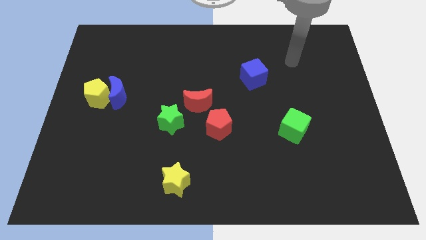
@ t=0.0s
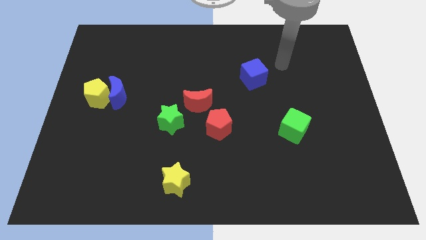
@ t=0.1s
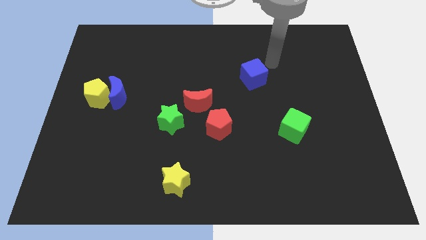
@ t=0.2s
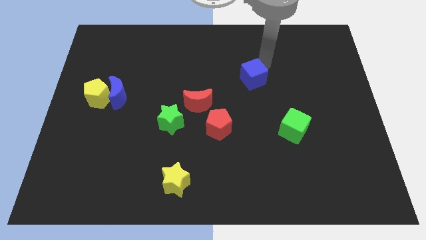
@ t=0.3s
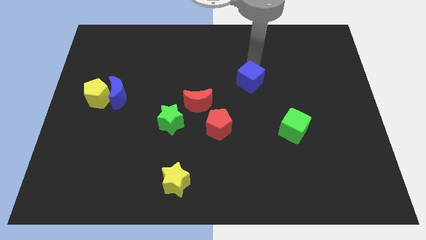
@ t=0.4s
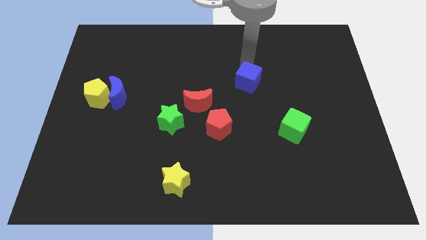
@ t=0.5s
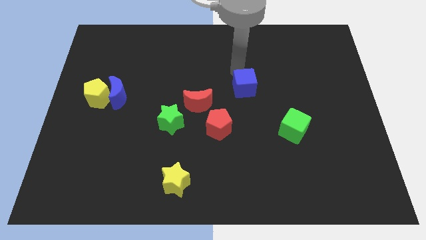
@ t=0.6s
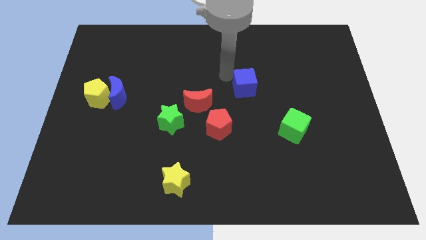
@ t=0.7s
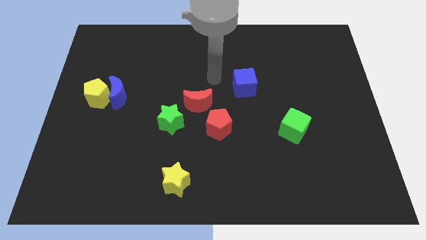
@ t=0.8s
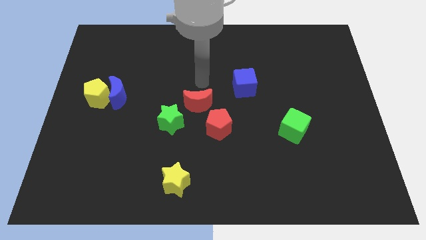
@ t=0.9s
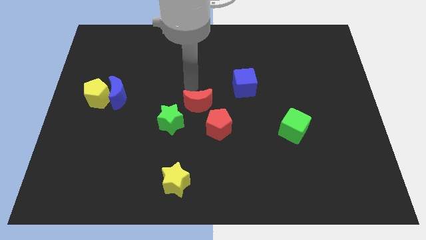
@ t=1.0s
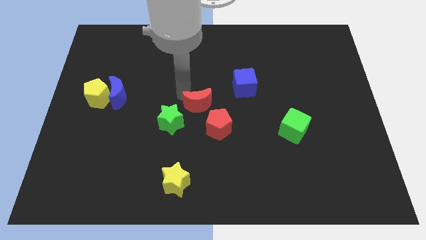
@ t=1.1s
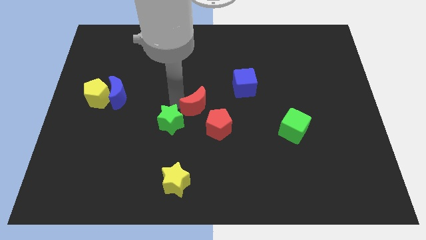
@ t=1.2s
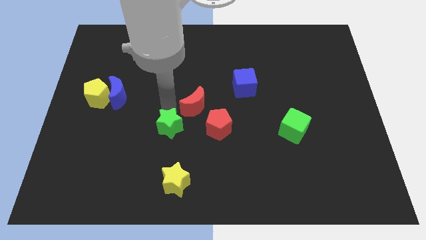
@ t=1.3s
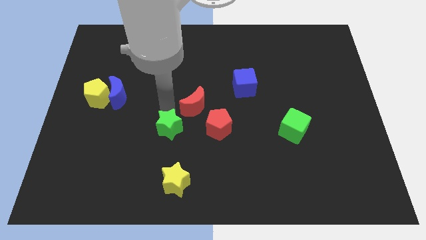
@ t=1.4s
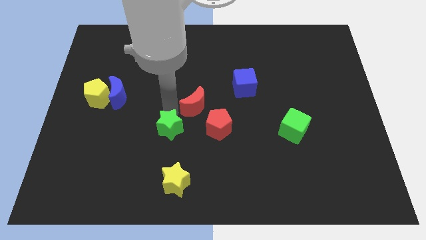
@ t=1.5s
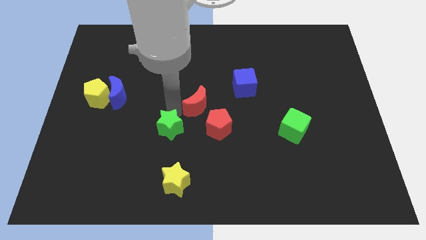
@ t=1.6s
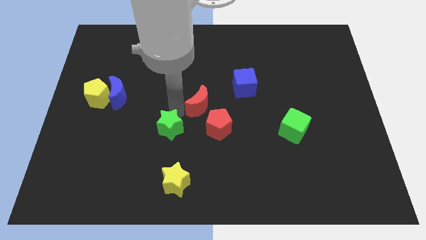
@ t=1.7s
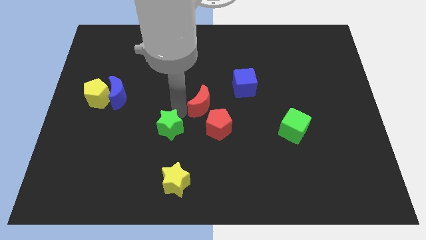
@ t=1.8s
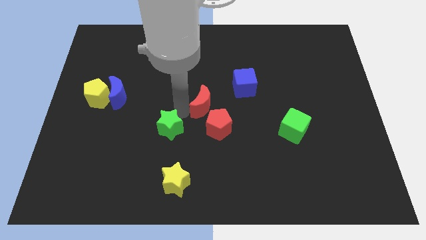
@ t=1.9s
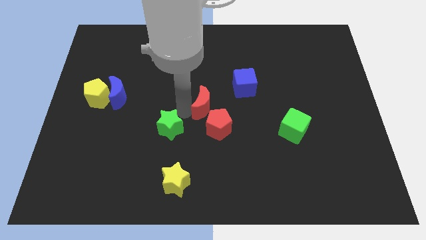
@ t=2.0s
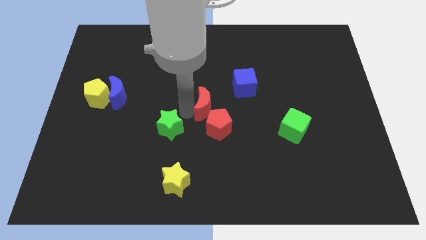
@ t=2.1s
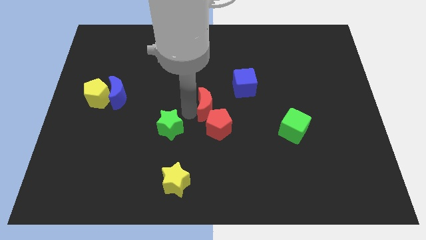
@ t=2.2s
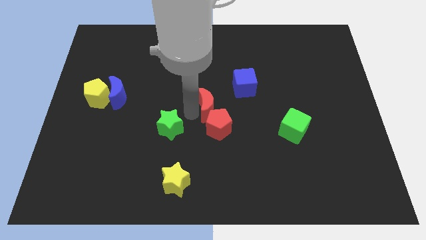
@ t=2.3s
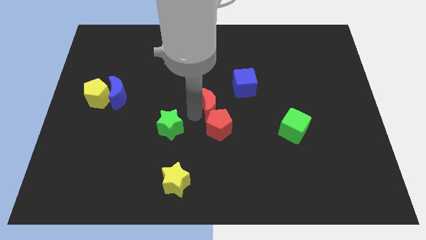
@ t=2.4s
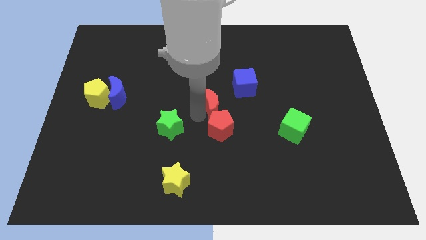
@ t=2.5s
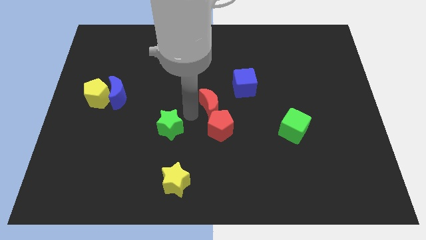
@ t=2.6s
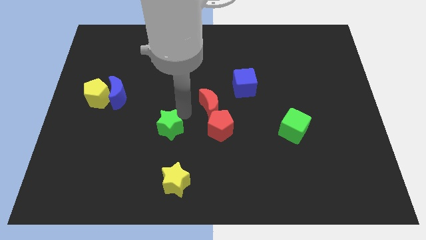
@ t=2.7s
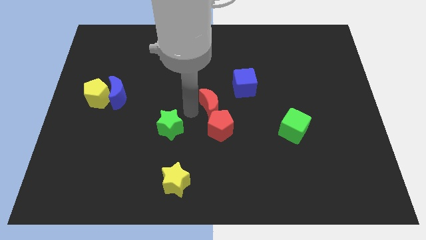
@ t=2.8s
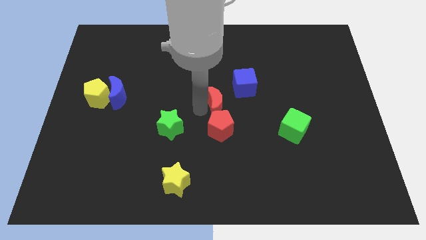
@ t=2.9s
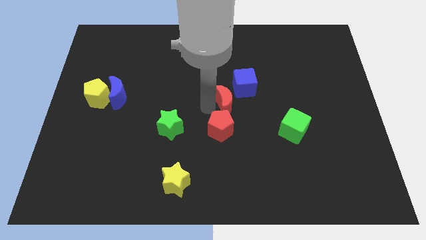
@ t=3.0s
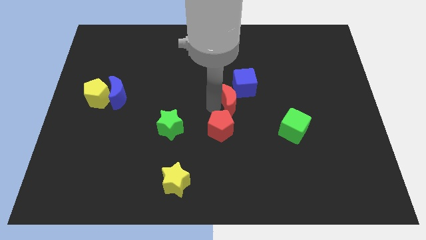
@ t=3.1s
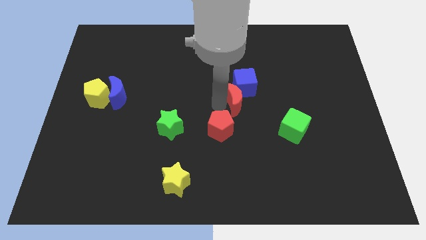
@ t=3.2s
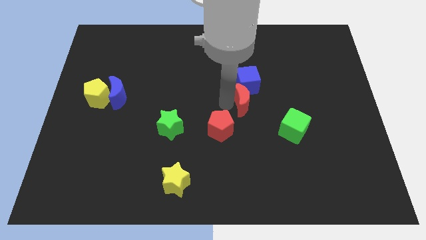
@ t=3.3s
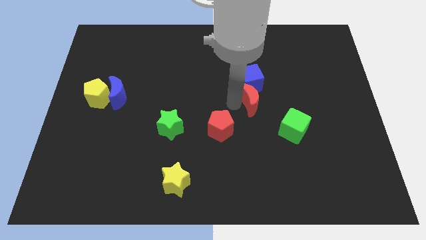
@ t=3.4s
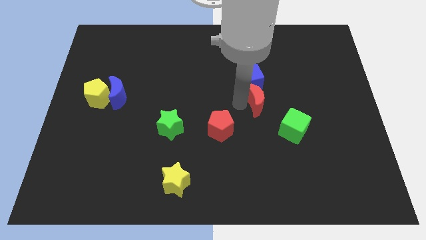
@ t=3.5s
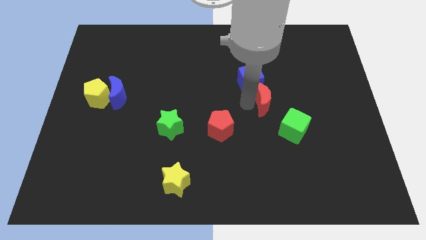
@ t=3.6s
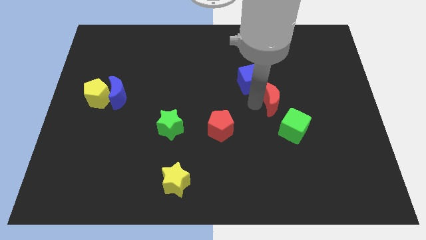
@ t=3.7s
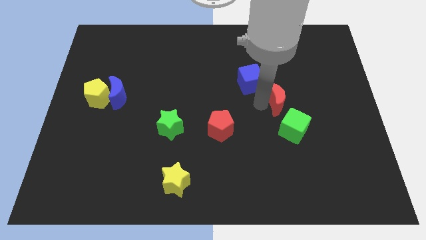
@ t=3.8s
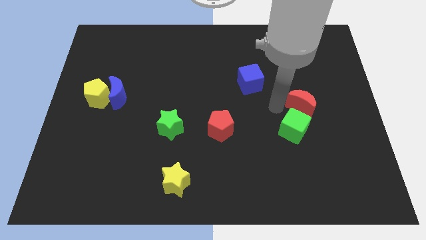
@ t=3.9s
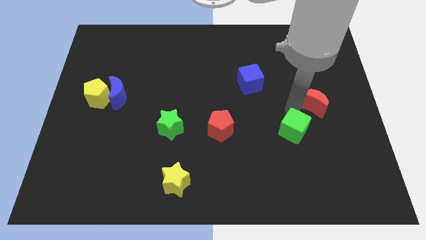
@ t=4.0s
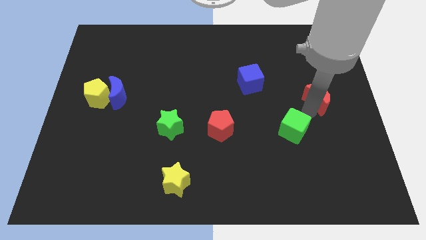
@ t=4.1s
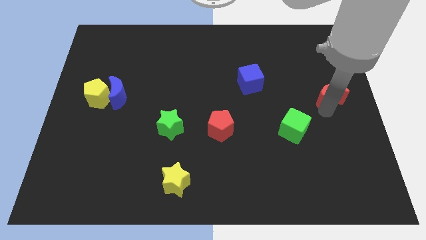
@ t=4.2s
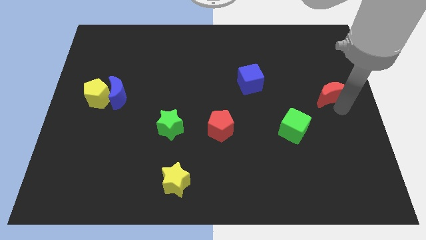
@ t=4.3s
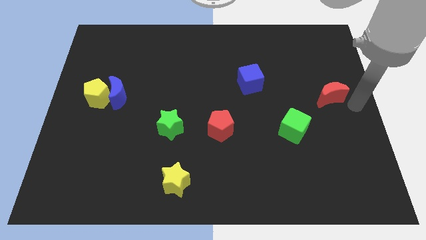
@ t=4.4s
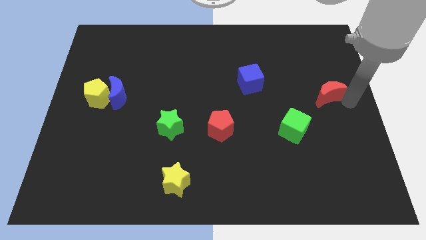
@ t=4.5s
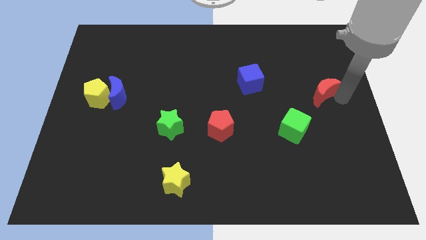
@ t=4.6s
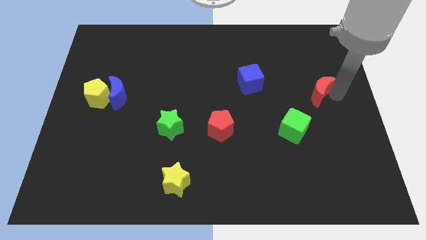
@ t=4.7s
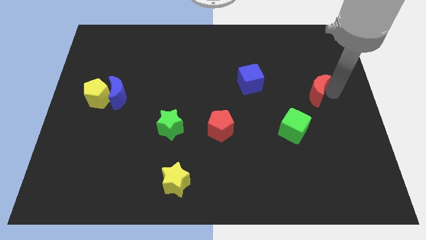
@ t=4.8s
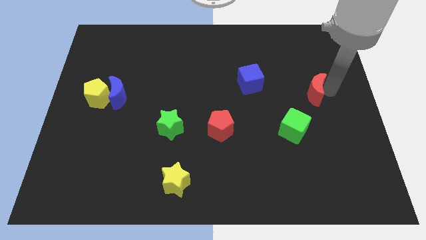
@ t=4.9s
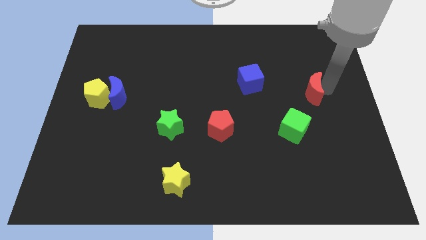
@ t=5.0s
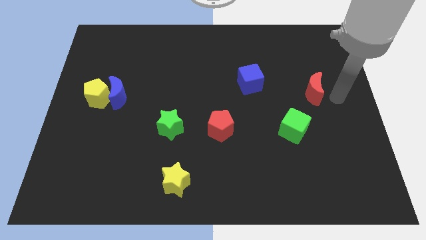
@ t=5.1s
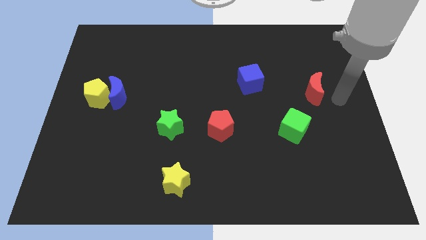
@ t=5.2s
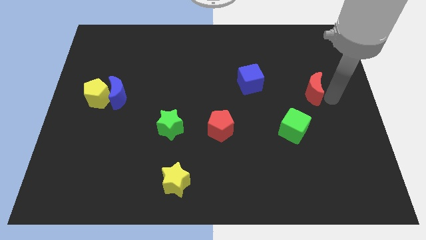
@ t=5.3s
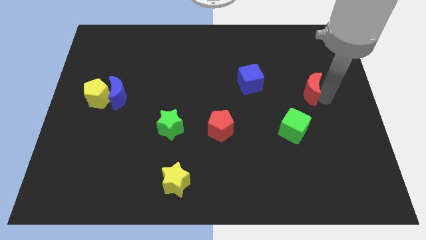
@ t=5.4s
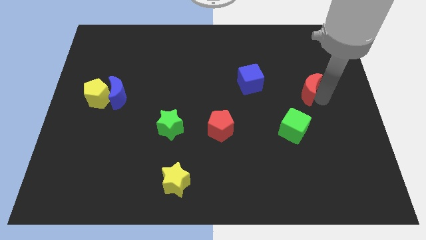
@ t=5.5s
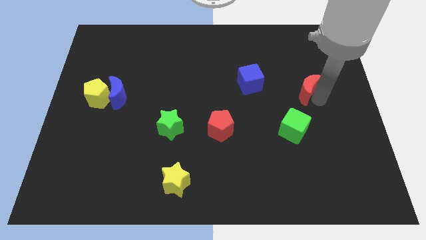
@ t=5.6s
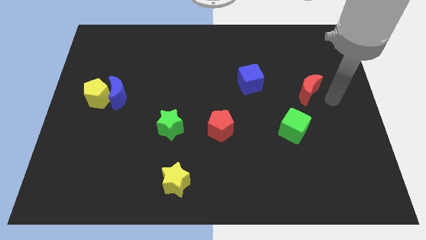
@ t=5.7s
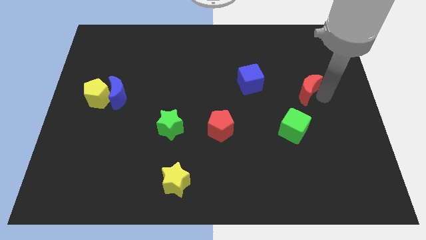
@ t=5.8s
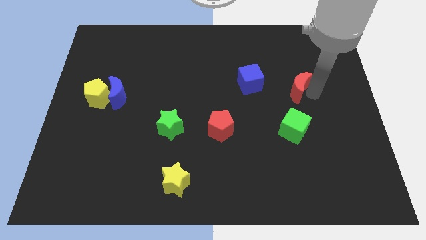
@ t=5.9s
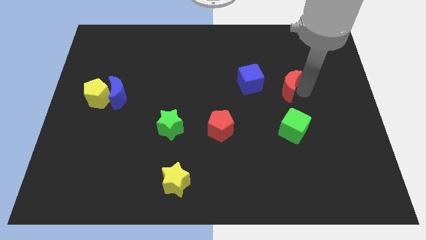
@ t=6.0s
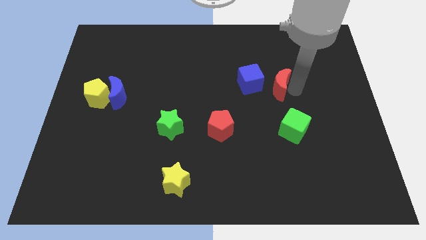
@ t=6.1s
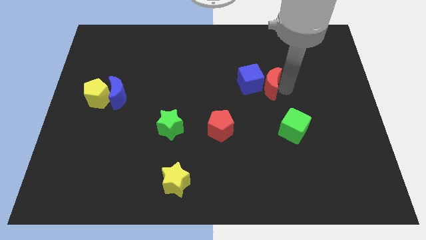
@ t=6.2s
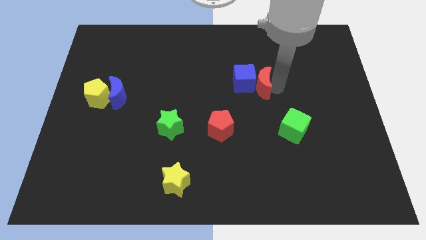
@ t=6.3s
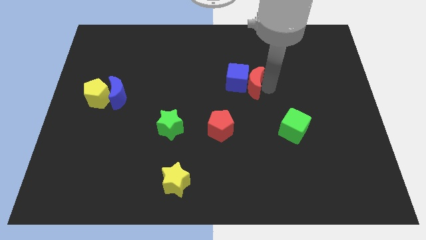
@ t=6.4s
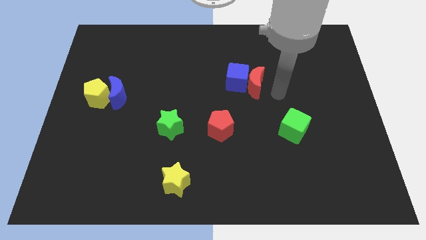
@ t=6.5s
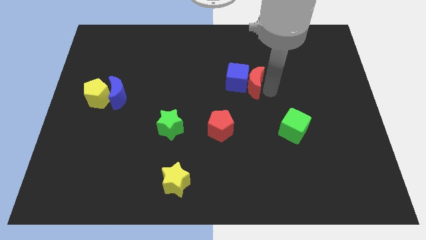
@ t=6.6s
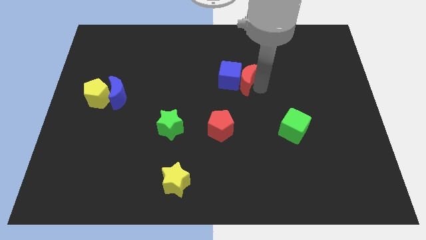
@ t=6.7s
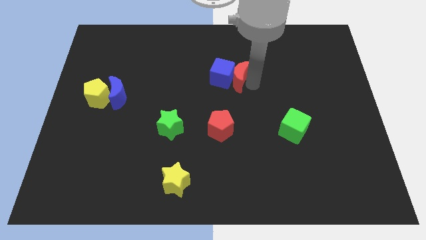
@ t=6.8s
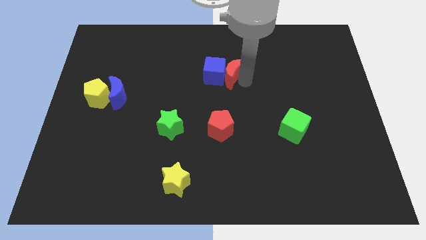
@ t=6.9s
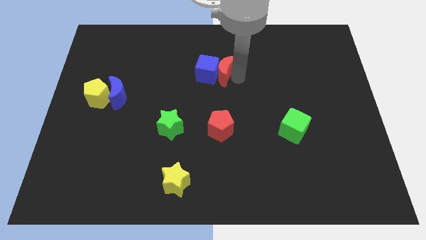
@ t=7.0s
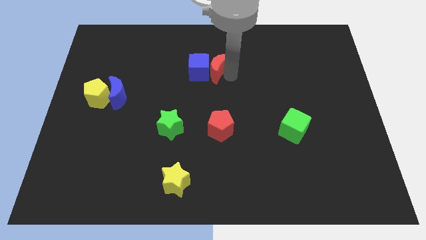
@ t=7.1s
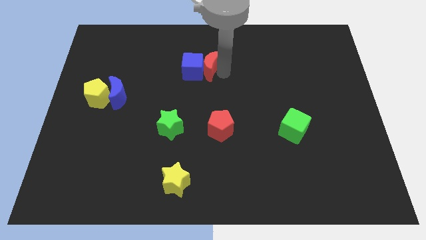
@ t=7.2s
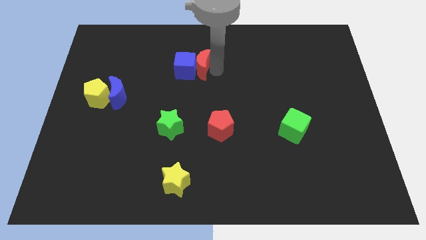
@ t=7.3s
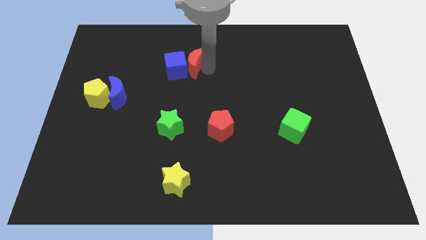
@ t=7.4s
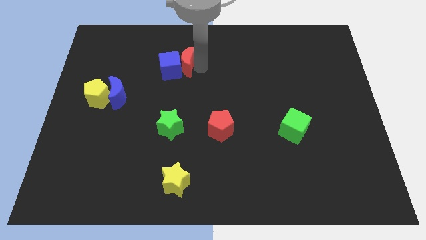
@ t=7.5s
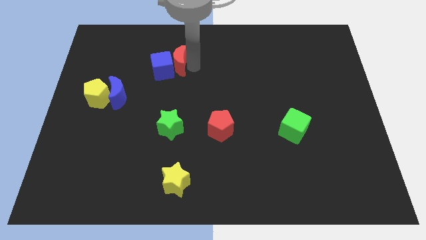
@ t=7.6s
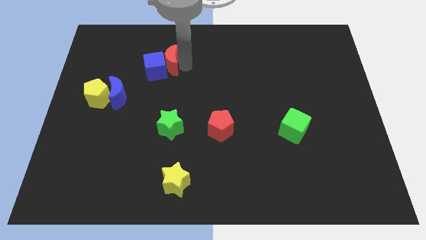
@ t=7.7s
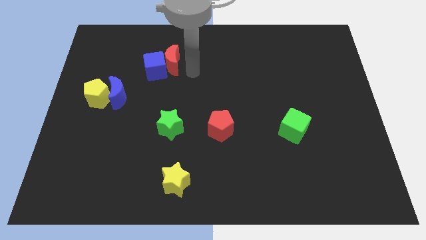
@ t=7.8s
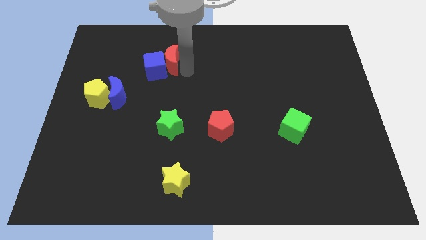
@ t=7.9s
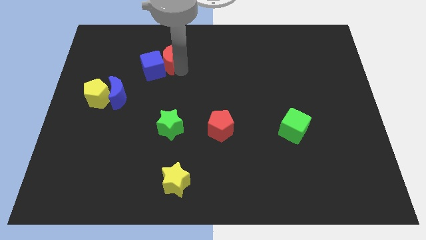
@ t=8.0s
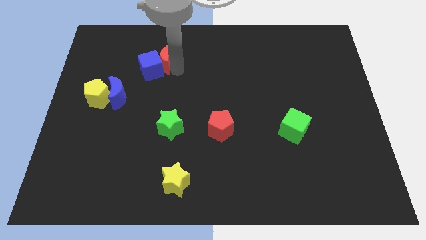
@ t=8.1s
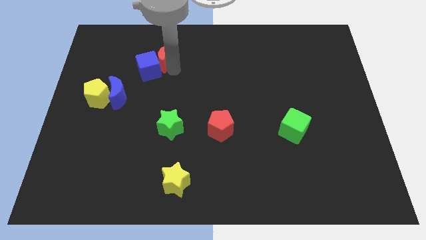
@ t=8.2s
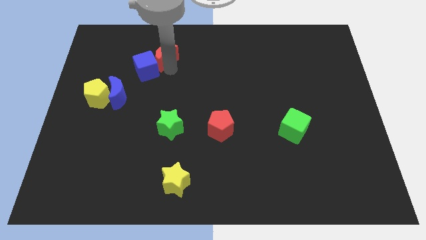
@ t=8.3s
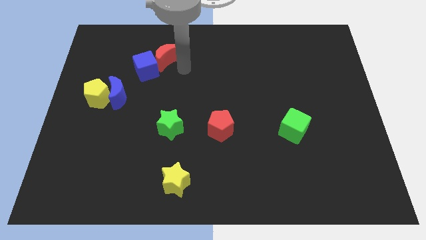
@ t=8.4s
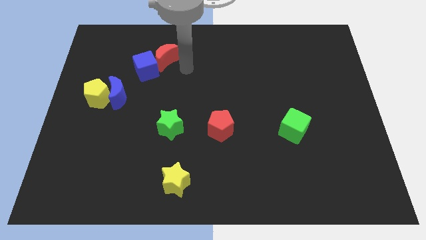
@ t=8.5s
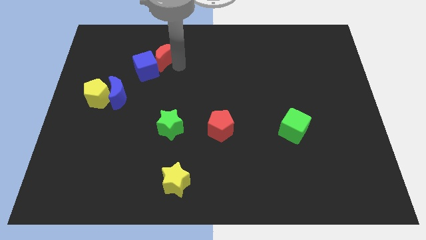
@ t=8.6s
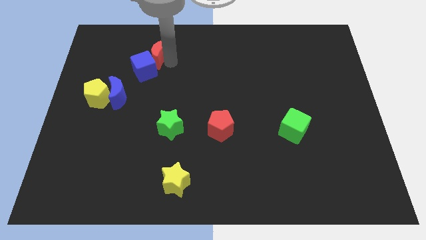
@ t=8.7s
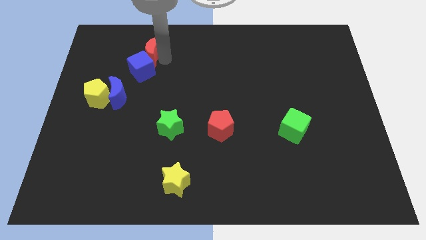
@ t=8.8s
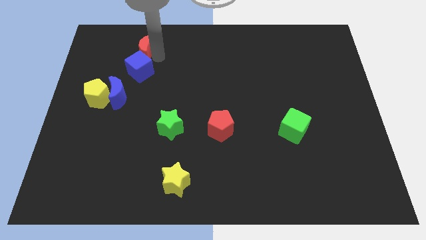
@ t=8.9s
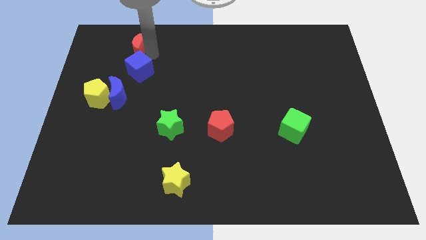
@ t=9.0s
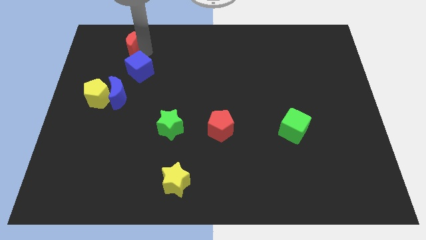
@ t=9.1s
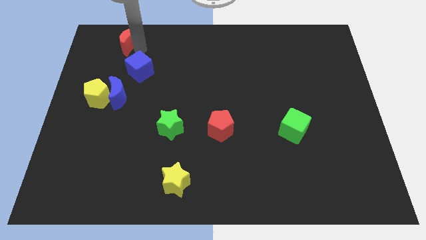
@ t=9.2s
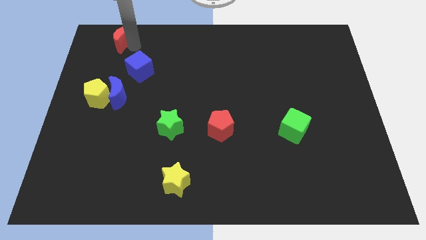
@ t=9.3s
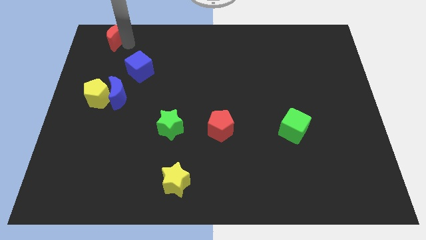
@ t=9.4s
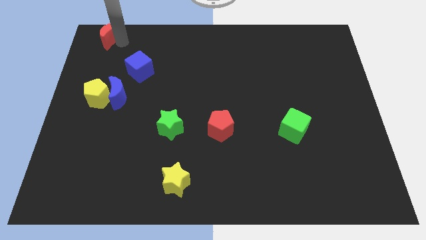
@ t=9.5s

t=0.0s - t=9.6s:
push the red moon to the upper left corner
